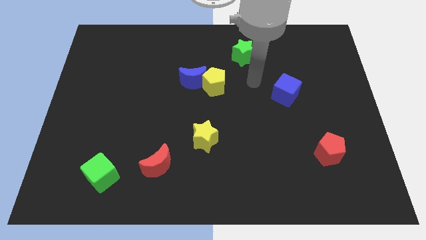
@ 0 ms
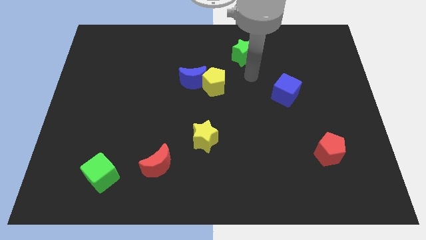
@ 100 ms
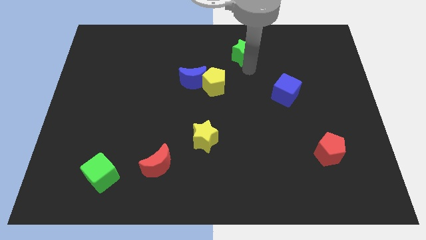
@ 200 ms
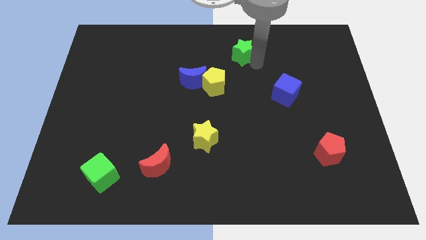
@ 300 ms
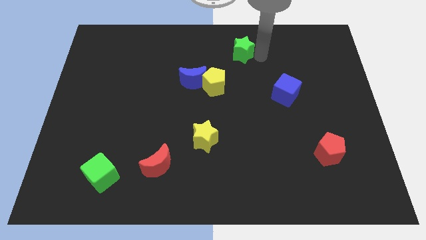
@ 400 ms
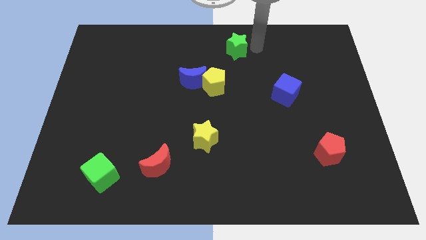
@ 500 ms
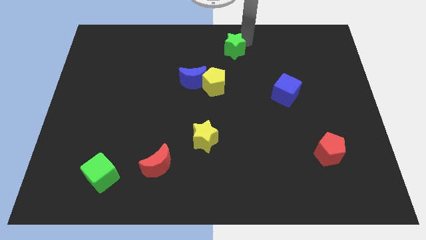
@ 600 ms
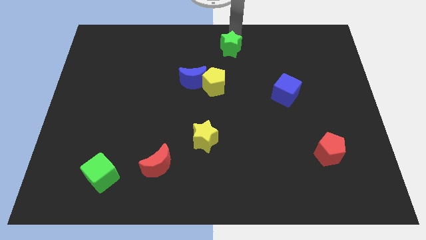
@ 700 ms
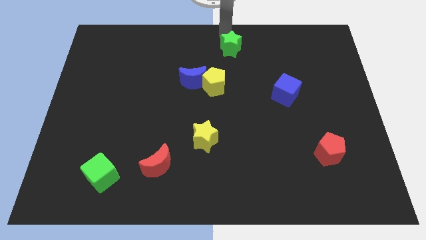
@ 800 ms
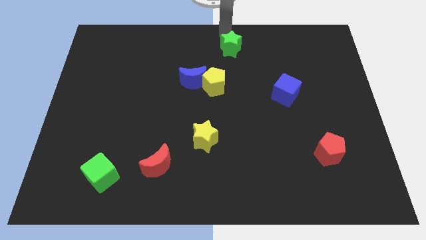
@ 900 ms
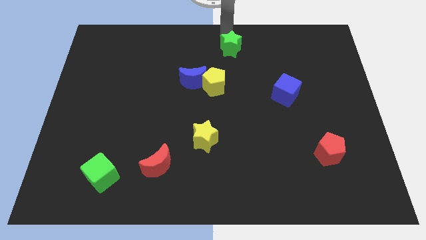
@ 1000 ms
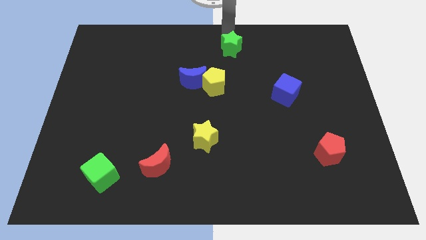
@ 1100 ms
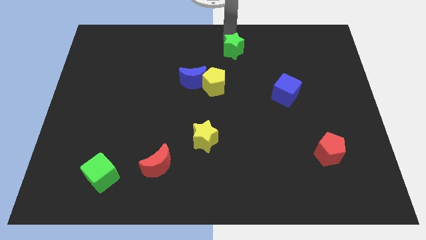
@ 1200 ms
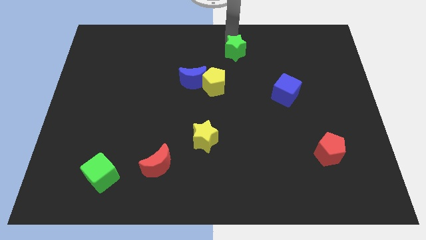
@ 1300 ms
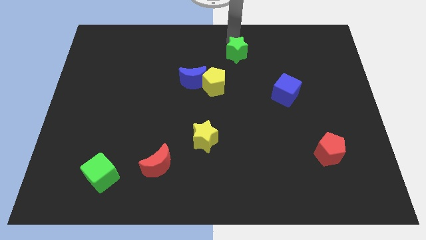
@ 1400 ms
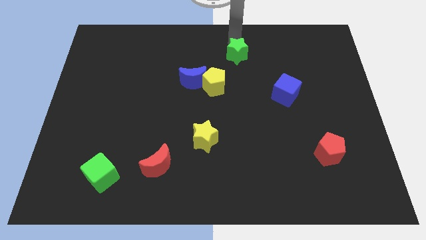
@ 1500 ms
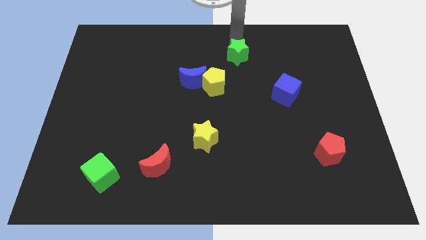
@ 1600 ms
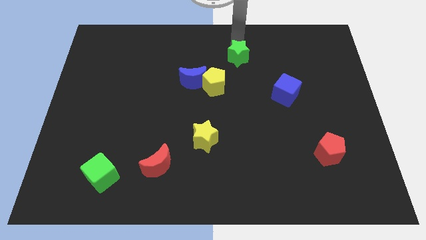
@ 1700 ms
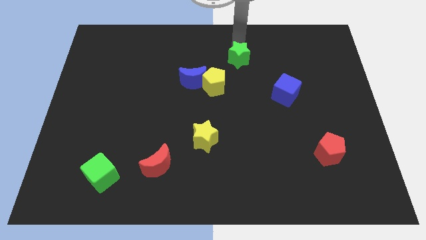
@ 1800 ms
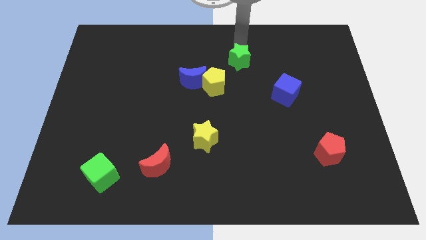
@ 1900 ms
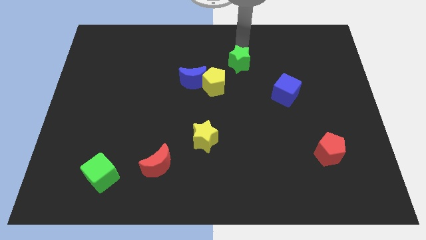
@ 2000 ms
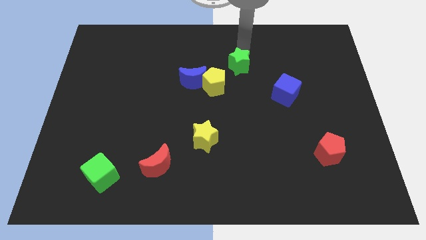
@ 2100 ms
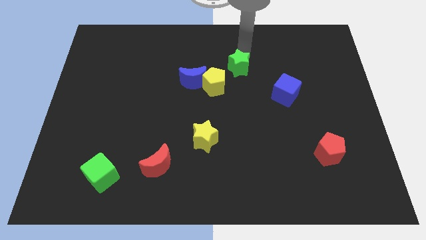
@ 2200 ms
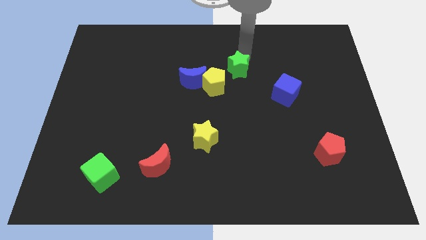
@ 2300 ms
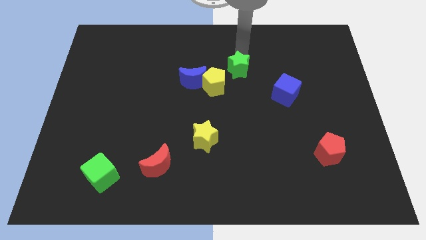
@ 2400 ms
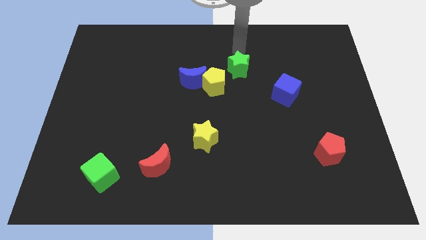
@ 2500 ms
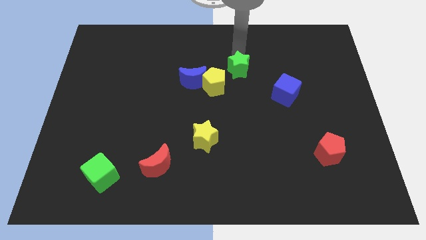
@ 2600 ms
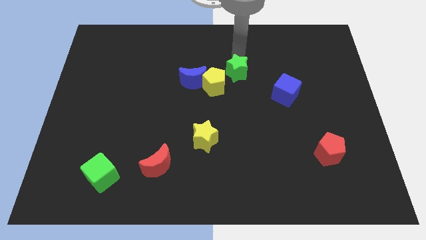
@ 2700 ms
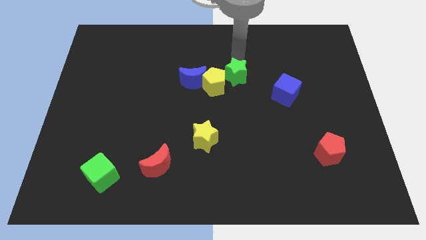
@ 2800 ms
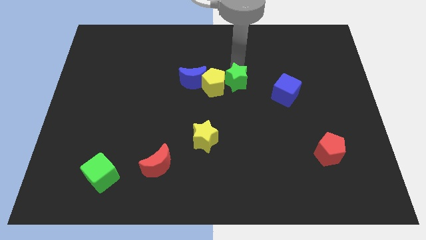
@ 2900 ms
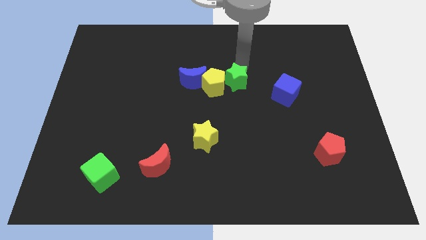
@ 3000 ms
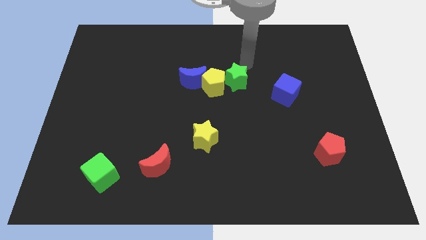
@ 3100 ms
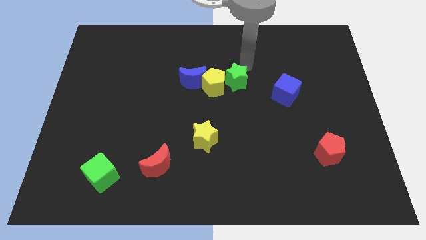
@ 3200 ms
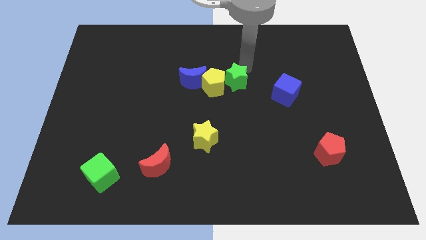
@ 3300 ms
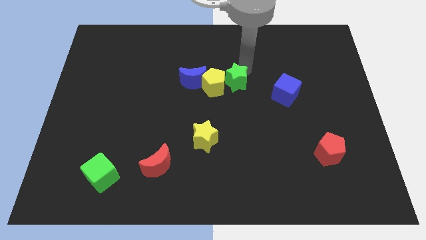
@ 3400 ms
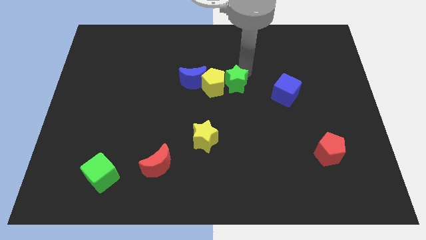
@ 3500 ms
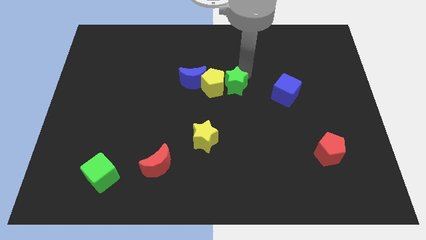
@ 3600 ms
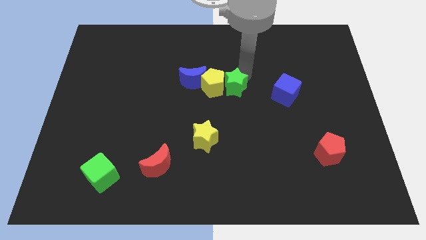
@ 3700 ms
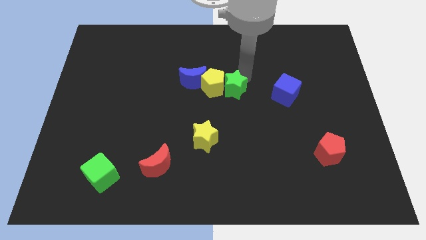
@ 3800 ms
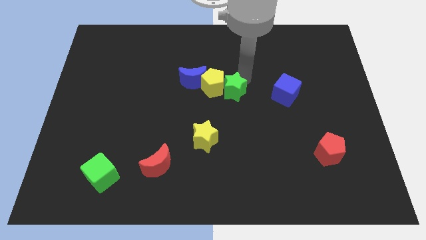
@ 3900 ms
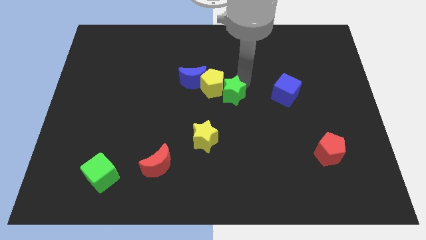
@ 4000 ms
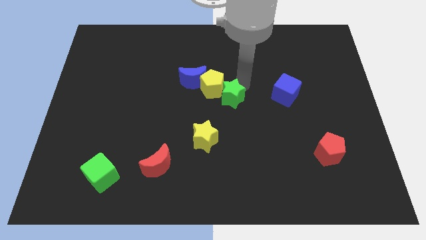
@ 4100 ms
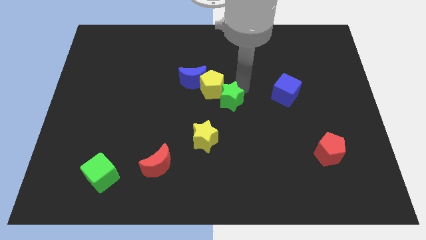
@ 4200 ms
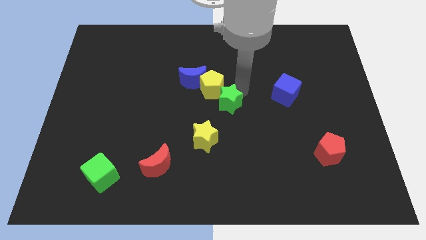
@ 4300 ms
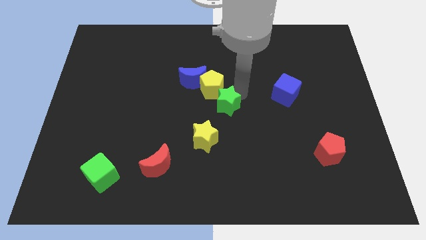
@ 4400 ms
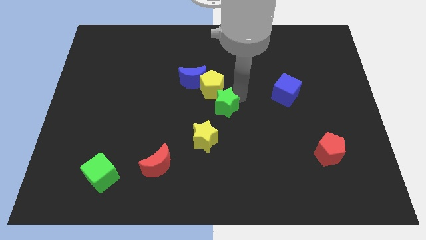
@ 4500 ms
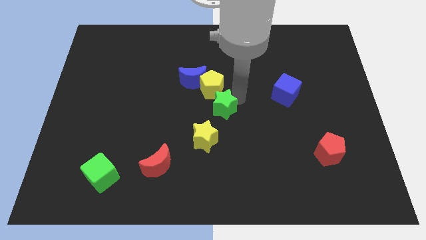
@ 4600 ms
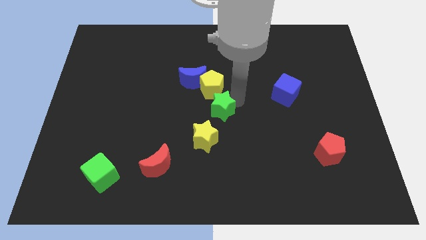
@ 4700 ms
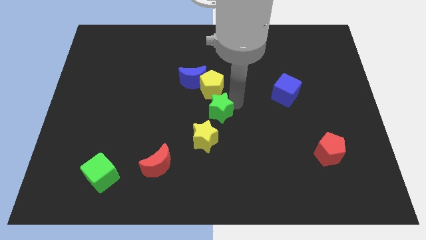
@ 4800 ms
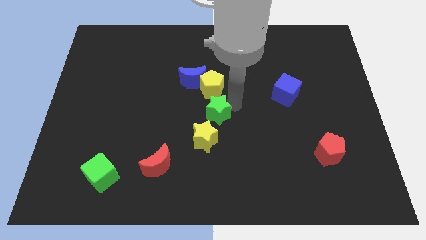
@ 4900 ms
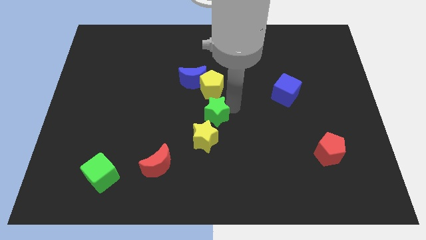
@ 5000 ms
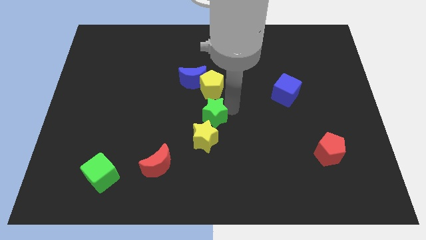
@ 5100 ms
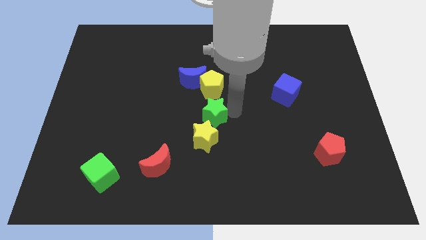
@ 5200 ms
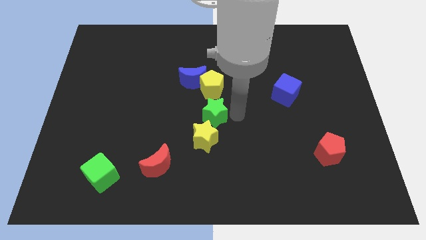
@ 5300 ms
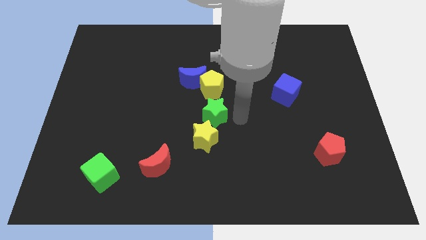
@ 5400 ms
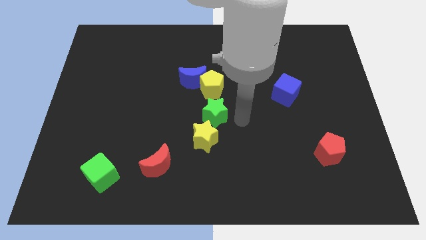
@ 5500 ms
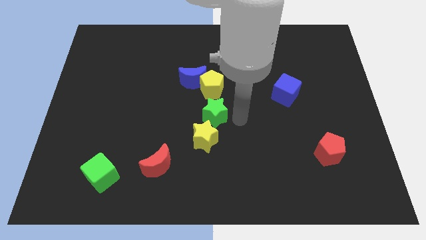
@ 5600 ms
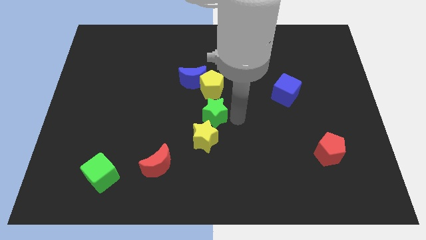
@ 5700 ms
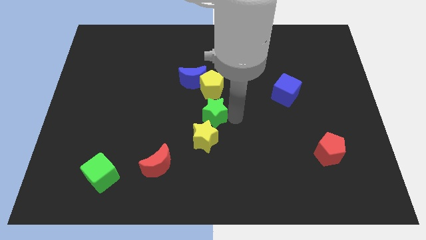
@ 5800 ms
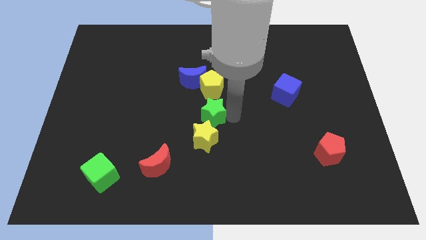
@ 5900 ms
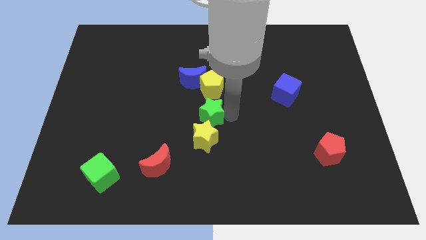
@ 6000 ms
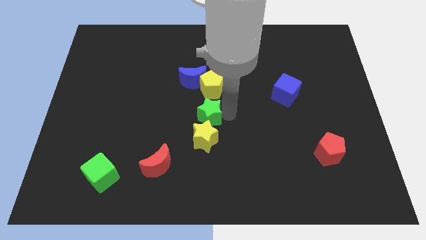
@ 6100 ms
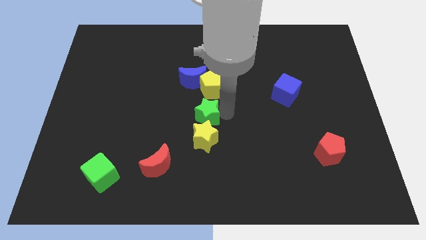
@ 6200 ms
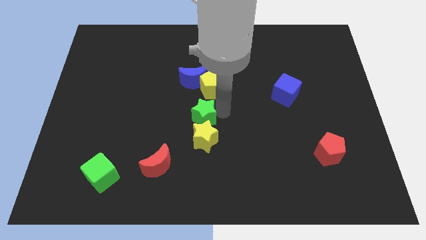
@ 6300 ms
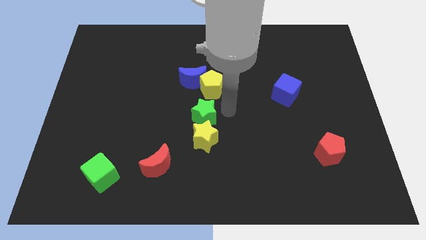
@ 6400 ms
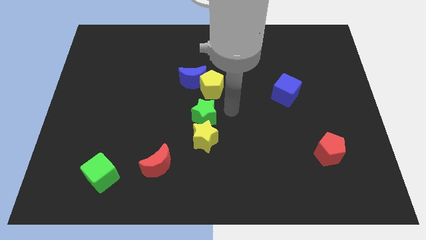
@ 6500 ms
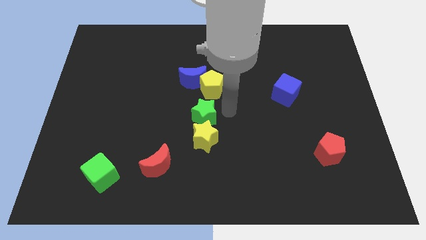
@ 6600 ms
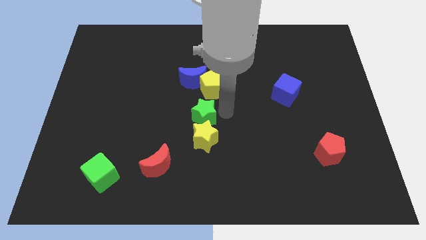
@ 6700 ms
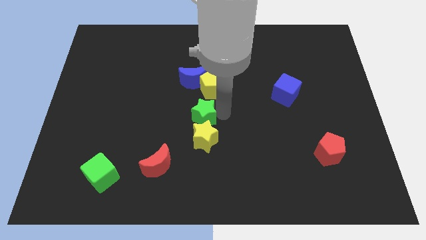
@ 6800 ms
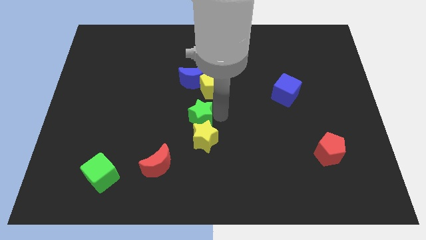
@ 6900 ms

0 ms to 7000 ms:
push the green star down and then to the left

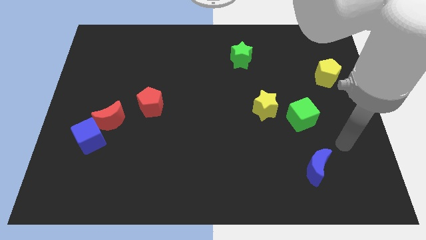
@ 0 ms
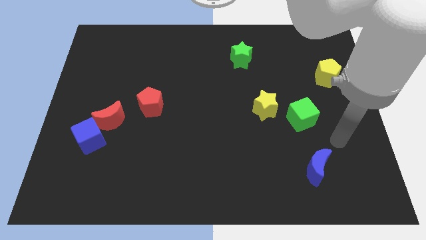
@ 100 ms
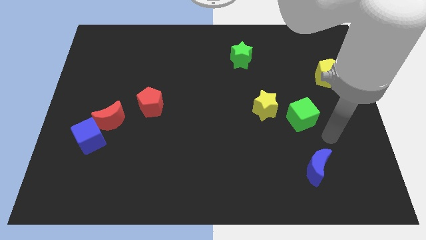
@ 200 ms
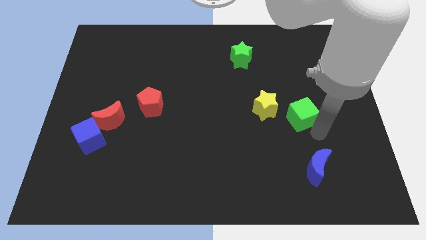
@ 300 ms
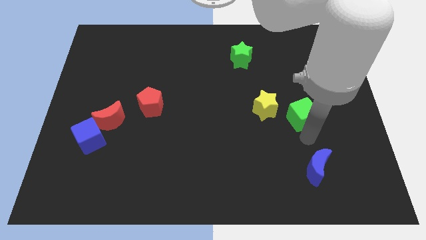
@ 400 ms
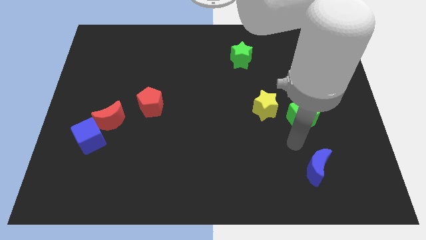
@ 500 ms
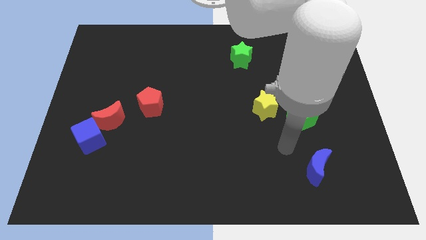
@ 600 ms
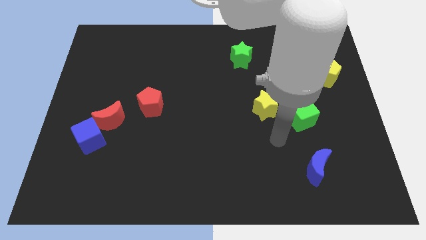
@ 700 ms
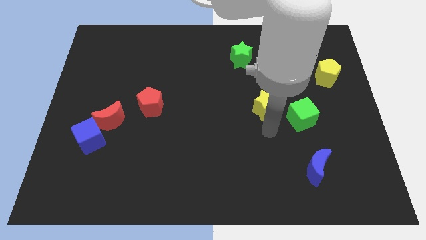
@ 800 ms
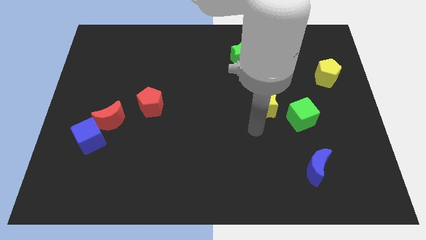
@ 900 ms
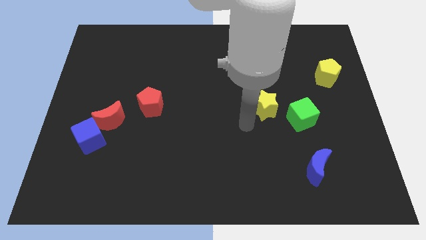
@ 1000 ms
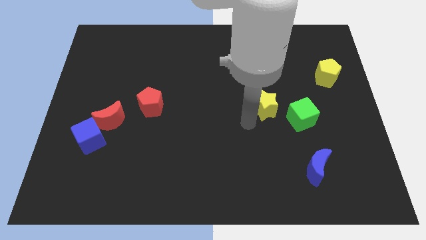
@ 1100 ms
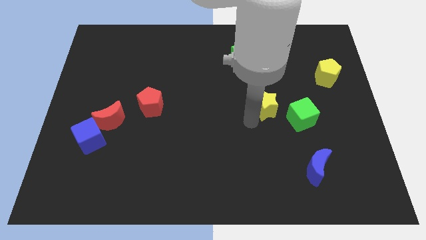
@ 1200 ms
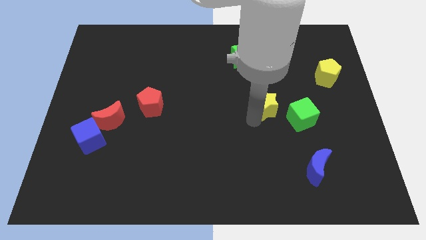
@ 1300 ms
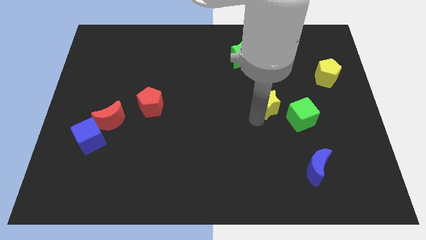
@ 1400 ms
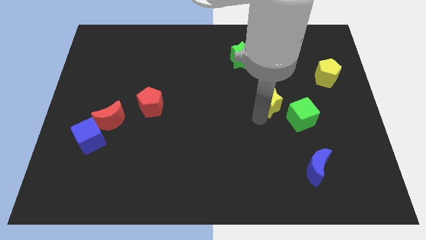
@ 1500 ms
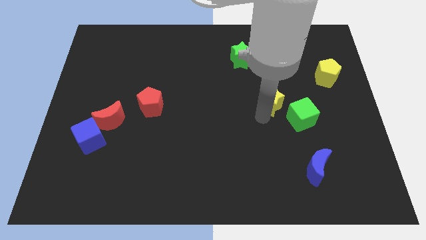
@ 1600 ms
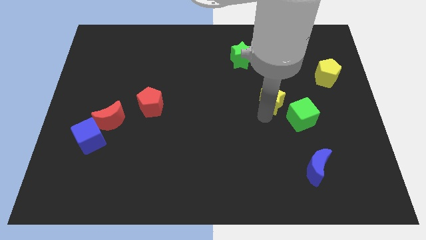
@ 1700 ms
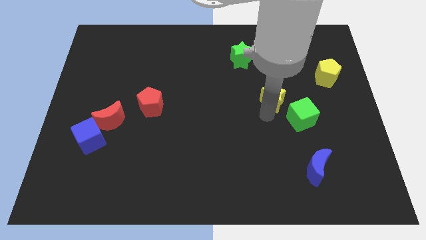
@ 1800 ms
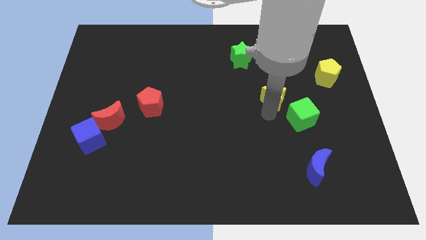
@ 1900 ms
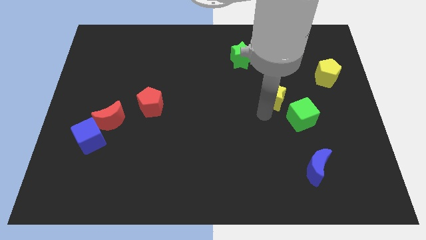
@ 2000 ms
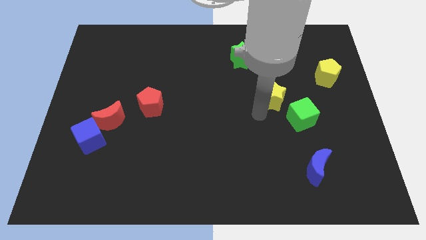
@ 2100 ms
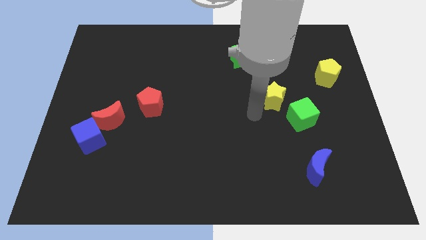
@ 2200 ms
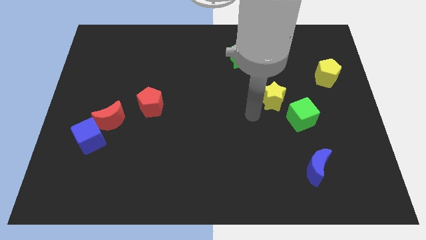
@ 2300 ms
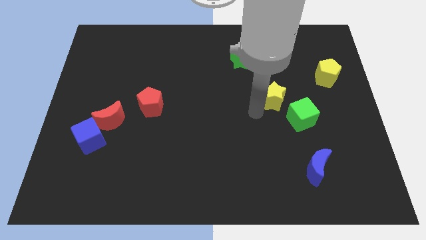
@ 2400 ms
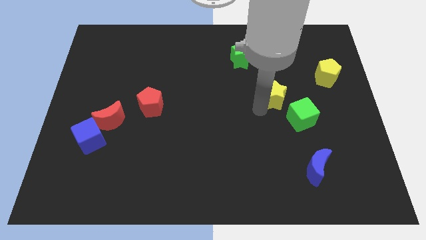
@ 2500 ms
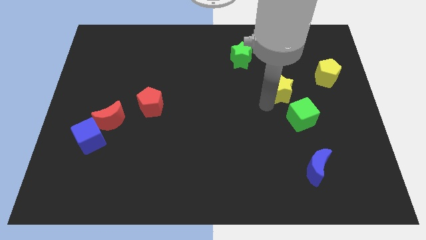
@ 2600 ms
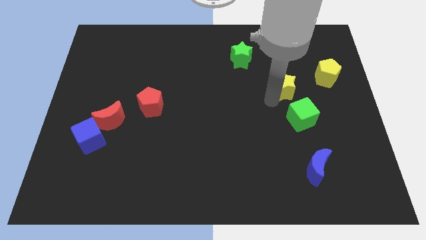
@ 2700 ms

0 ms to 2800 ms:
slide the yellow star a little diagonally up and right
